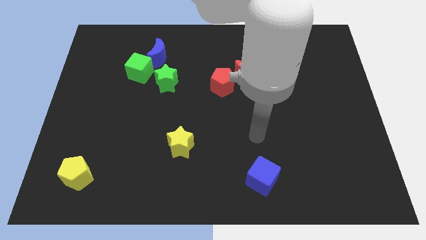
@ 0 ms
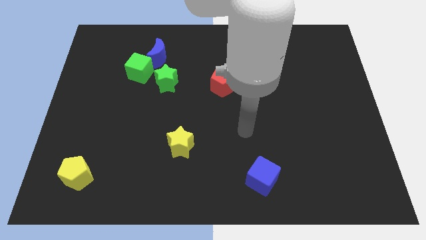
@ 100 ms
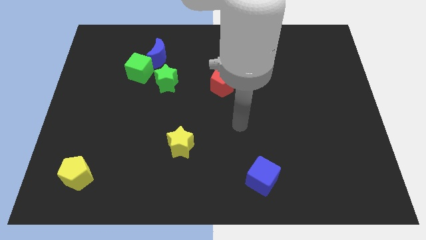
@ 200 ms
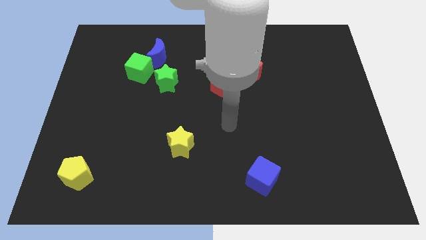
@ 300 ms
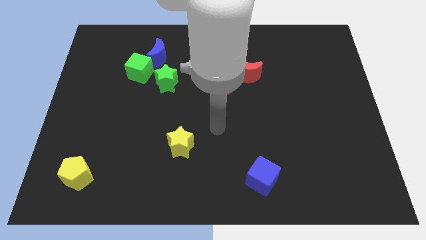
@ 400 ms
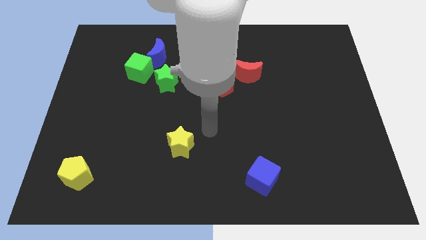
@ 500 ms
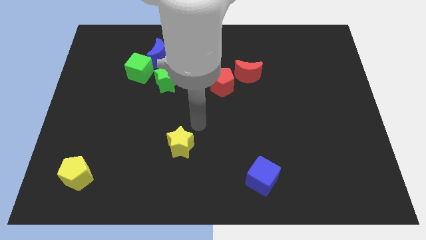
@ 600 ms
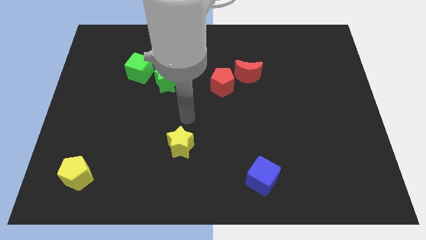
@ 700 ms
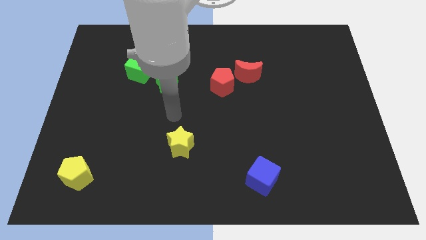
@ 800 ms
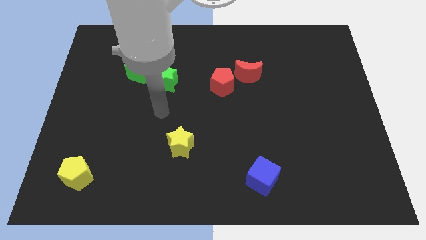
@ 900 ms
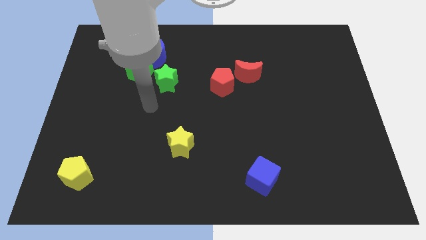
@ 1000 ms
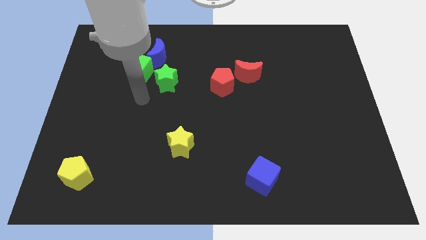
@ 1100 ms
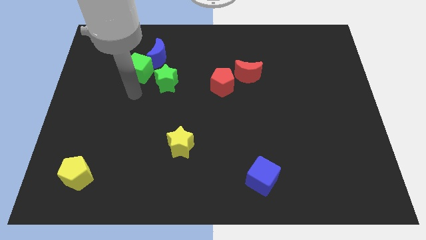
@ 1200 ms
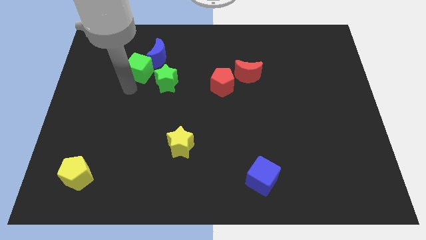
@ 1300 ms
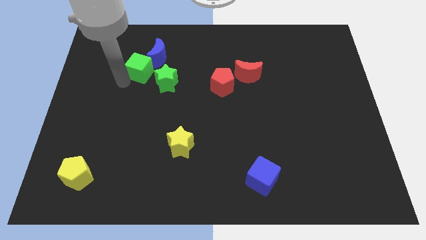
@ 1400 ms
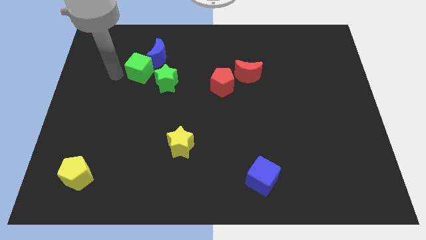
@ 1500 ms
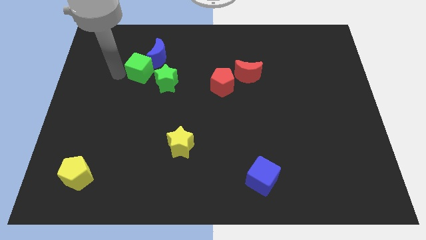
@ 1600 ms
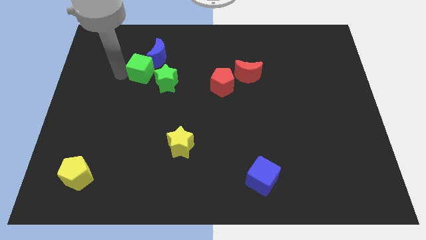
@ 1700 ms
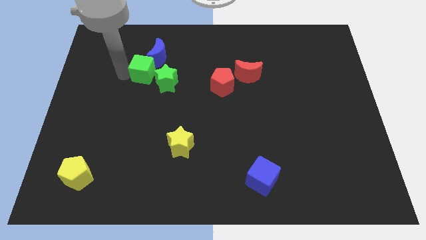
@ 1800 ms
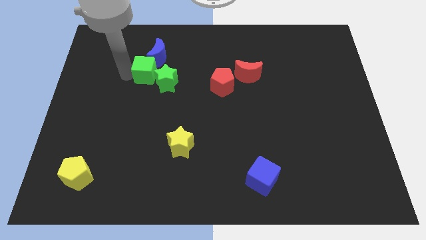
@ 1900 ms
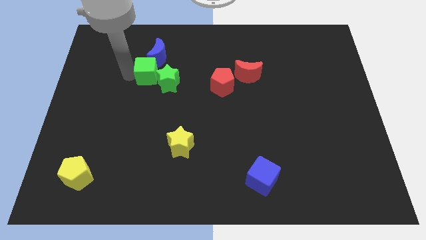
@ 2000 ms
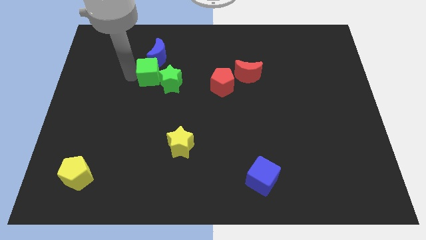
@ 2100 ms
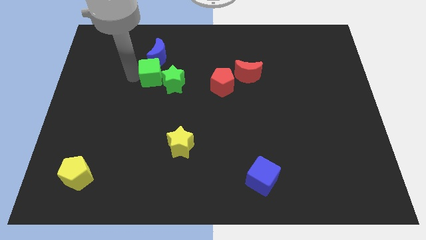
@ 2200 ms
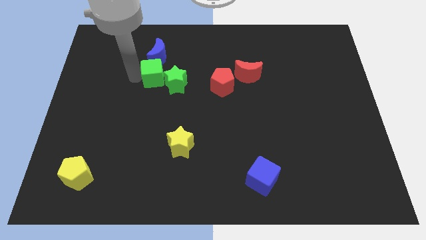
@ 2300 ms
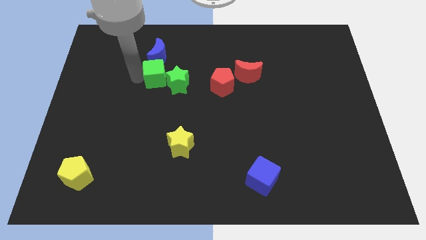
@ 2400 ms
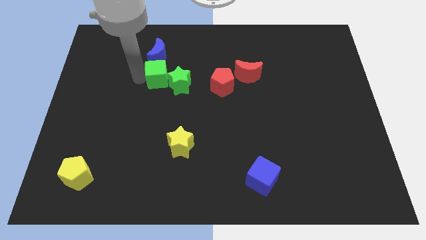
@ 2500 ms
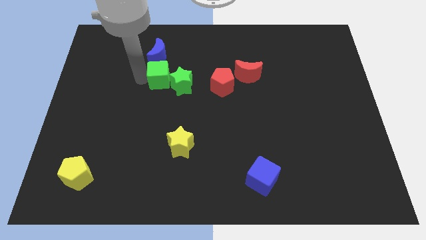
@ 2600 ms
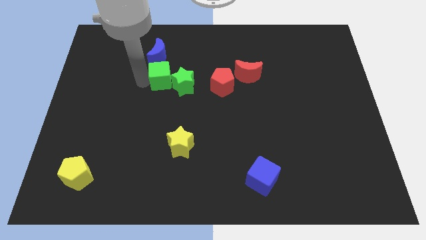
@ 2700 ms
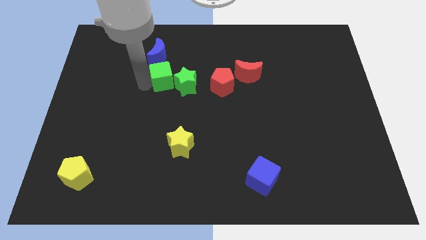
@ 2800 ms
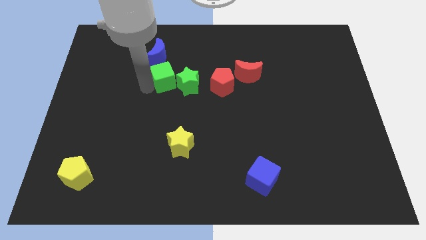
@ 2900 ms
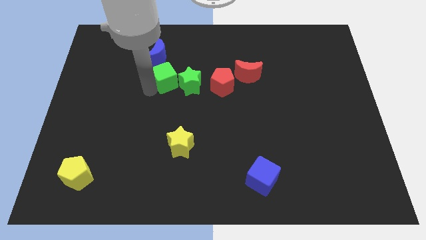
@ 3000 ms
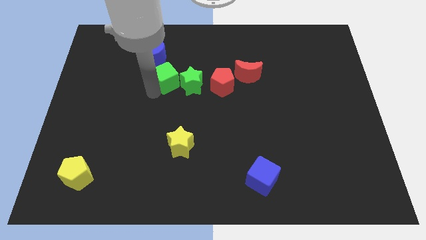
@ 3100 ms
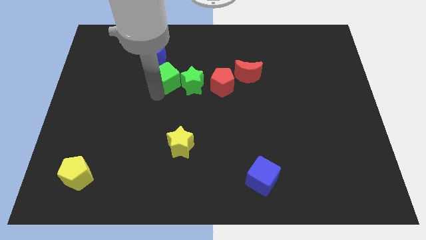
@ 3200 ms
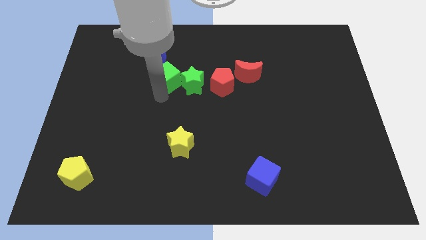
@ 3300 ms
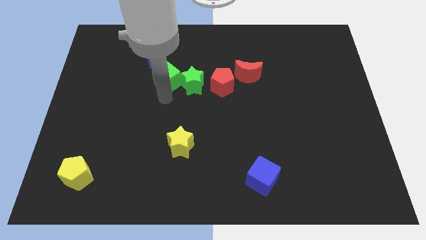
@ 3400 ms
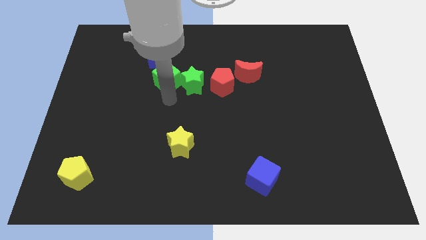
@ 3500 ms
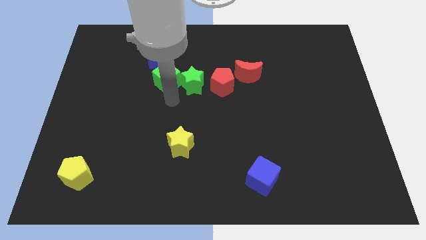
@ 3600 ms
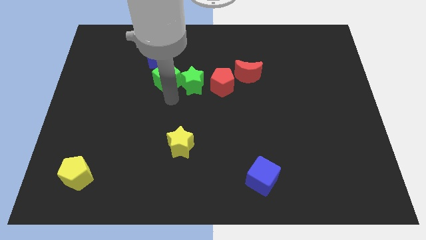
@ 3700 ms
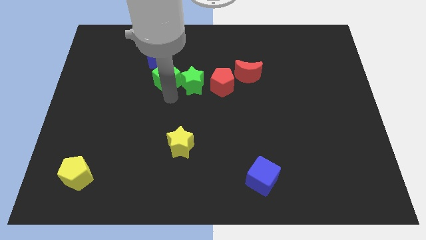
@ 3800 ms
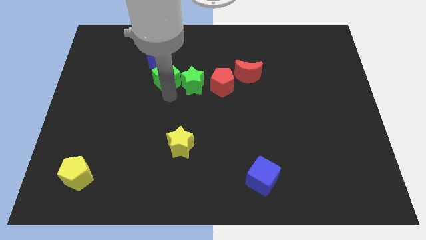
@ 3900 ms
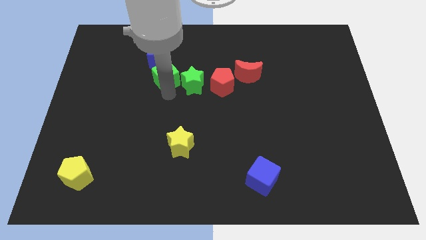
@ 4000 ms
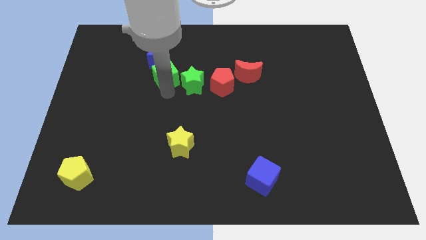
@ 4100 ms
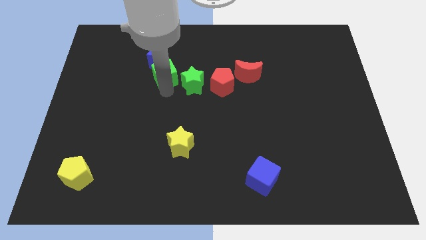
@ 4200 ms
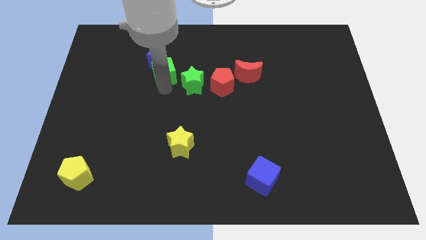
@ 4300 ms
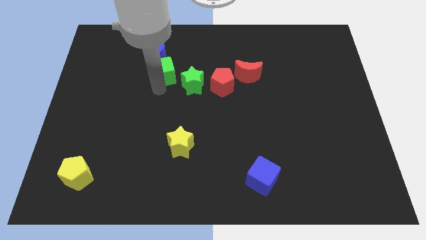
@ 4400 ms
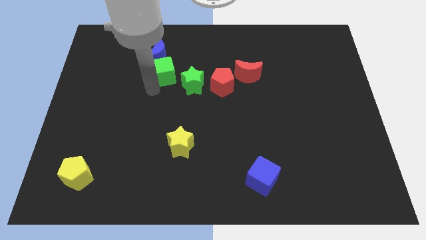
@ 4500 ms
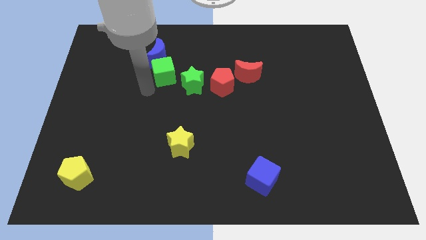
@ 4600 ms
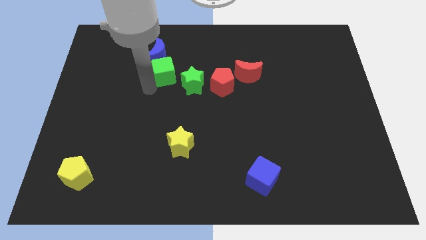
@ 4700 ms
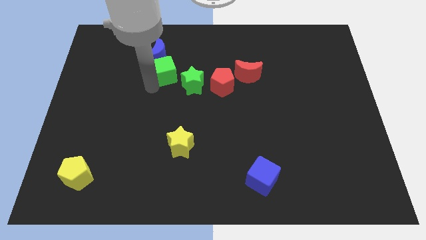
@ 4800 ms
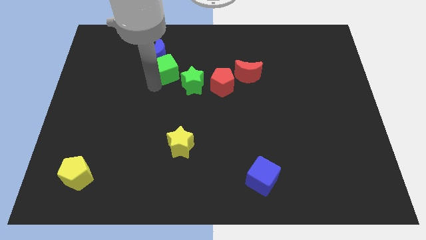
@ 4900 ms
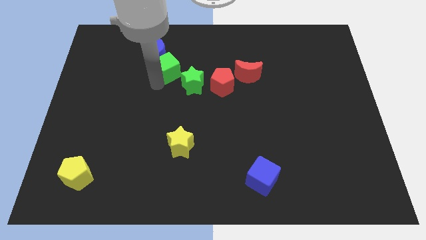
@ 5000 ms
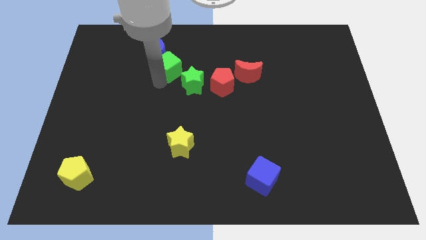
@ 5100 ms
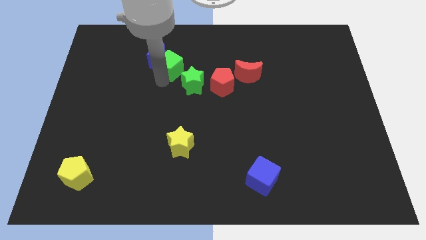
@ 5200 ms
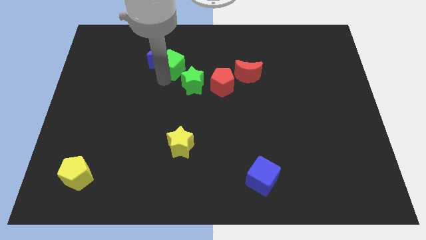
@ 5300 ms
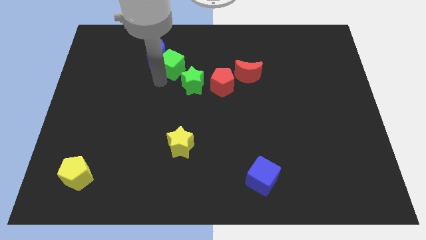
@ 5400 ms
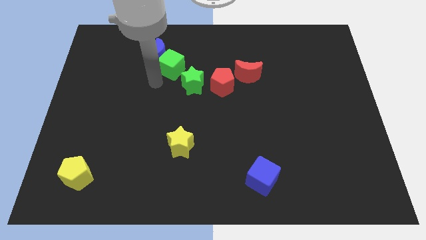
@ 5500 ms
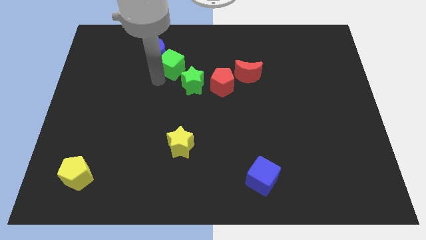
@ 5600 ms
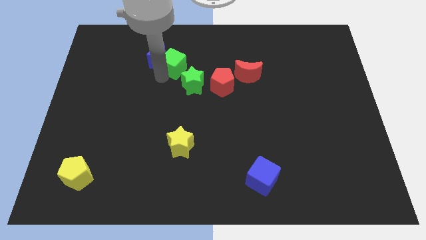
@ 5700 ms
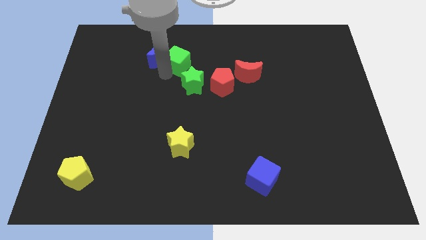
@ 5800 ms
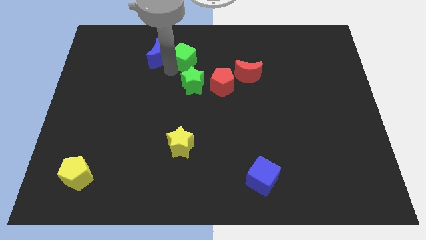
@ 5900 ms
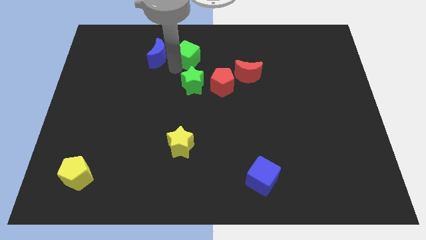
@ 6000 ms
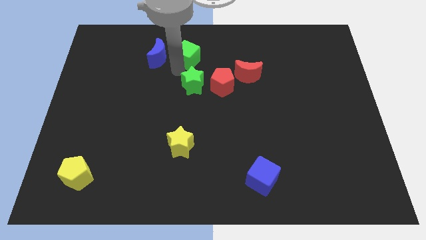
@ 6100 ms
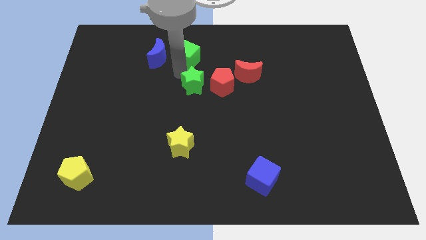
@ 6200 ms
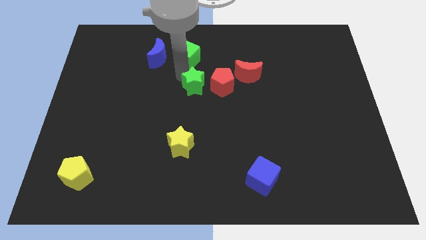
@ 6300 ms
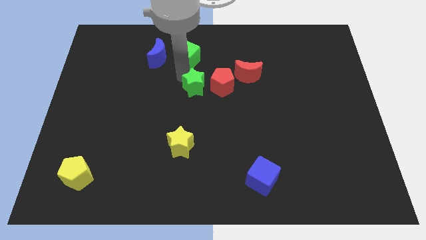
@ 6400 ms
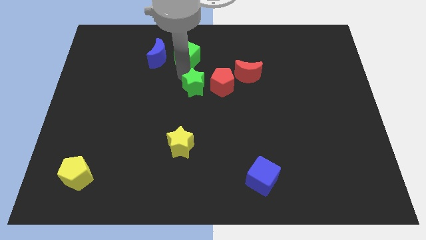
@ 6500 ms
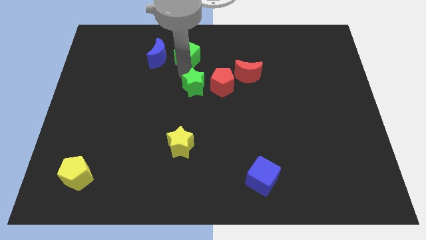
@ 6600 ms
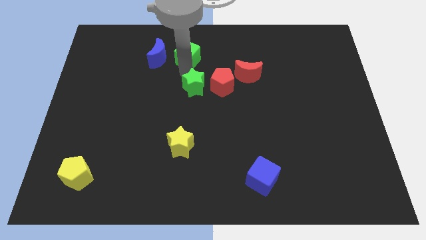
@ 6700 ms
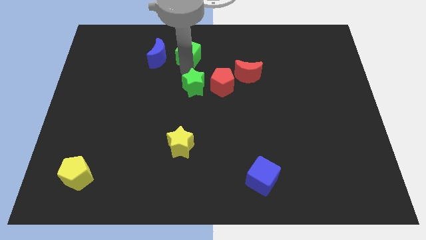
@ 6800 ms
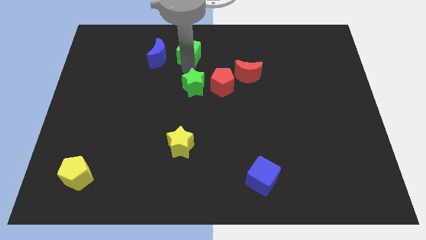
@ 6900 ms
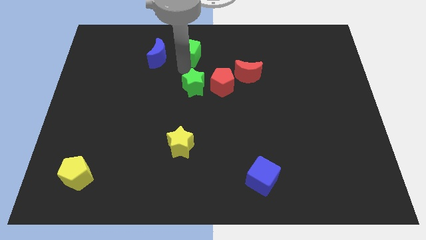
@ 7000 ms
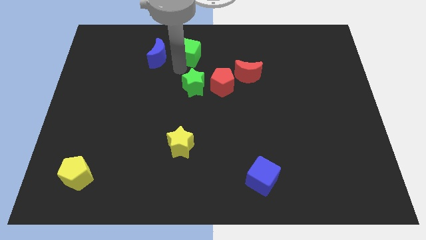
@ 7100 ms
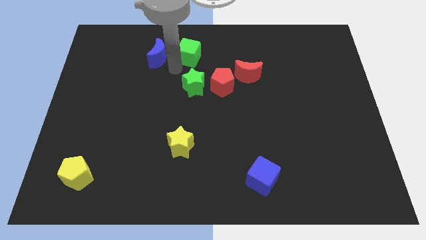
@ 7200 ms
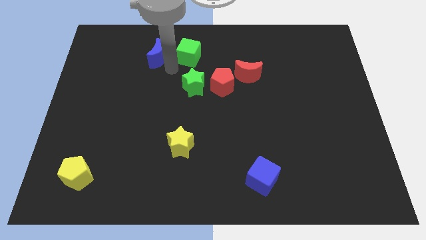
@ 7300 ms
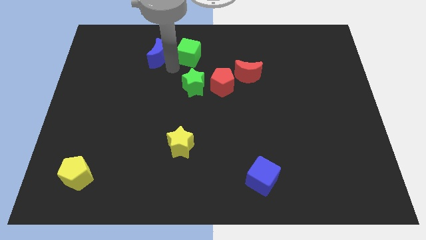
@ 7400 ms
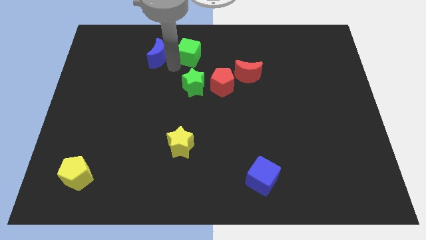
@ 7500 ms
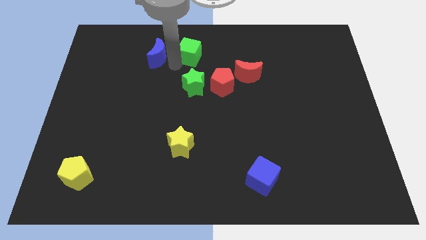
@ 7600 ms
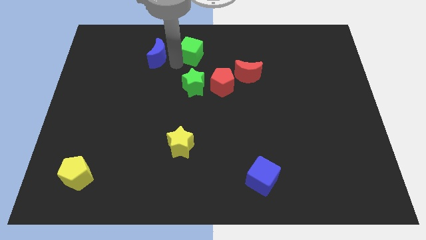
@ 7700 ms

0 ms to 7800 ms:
put the green cube to the top
